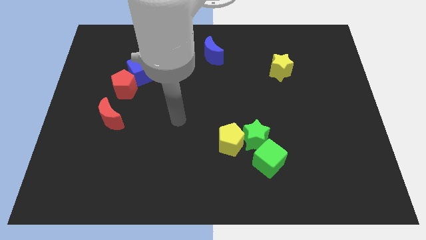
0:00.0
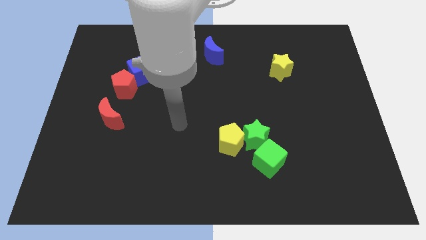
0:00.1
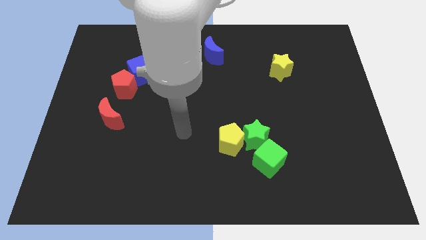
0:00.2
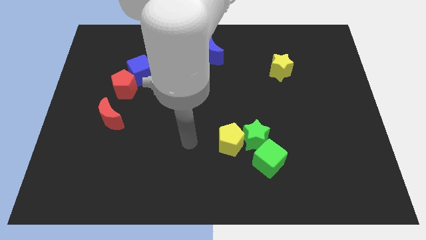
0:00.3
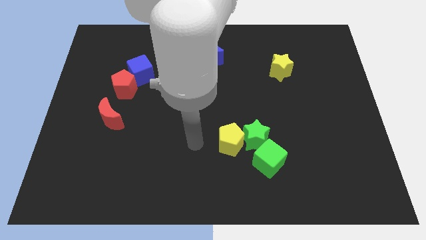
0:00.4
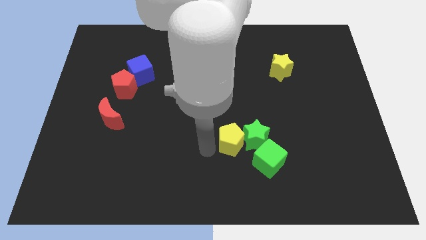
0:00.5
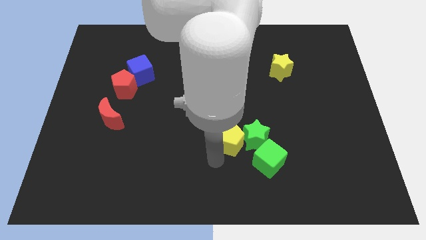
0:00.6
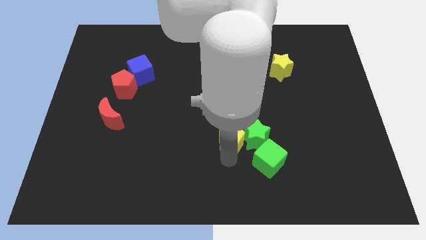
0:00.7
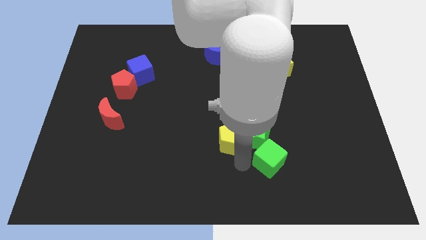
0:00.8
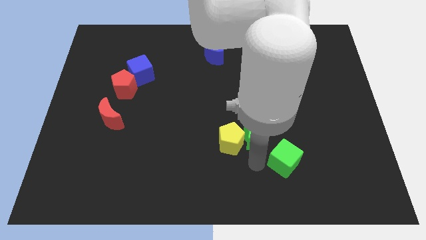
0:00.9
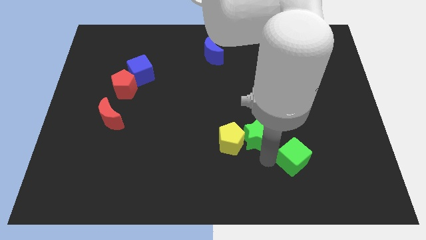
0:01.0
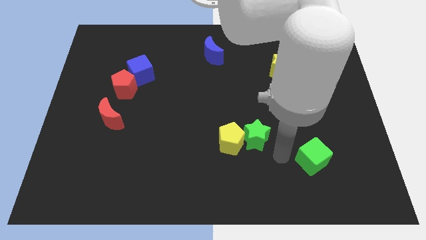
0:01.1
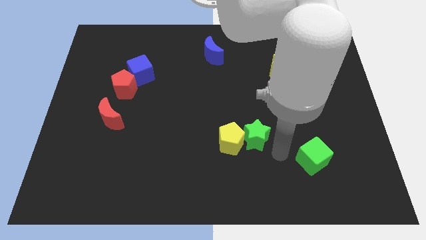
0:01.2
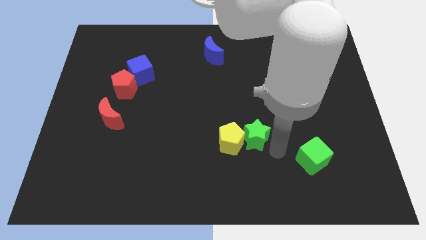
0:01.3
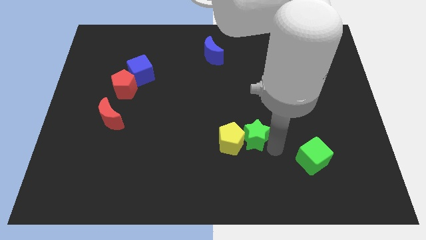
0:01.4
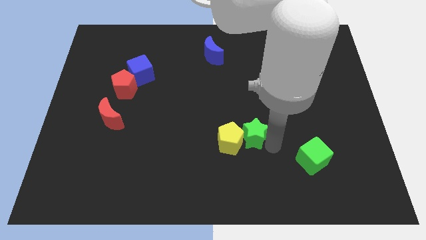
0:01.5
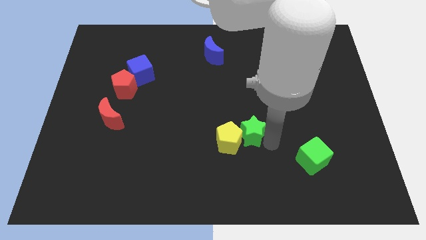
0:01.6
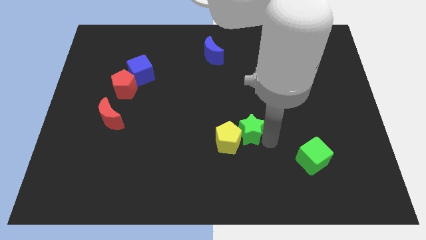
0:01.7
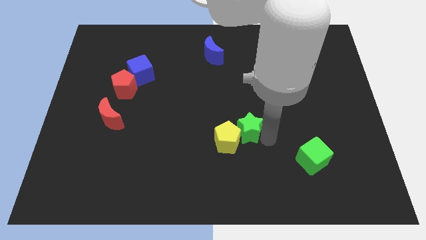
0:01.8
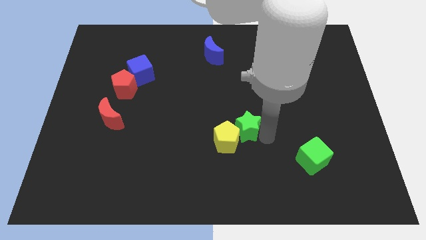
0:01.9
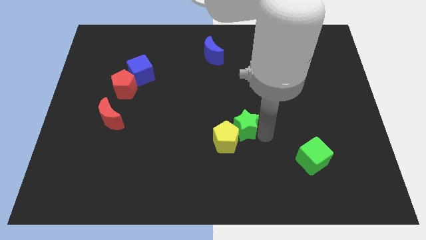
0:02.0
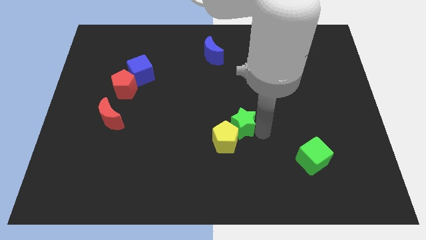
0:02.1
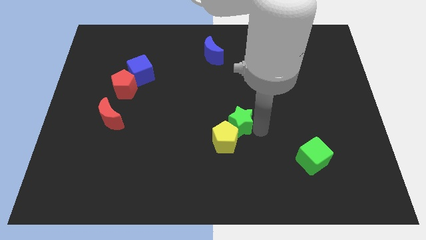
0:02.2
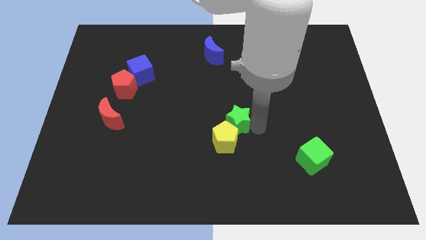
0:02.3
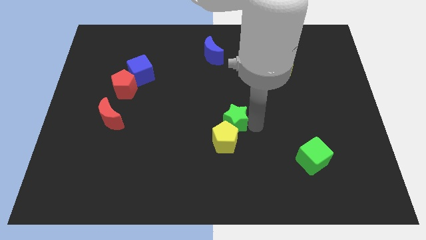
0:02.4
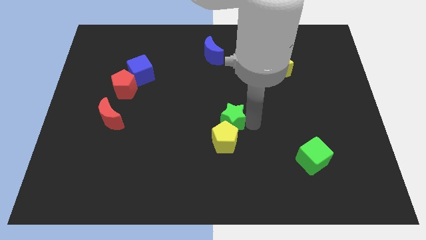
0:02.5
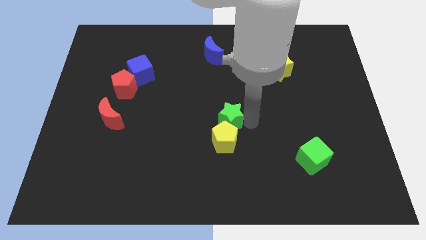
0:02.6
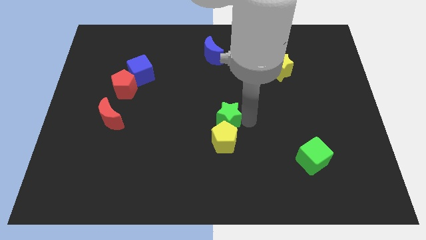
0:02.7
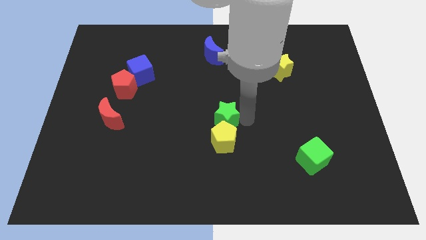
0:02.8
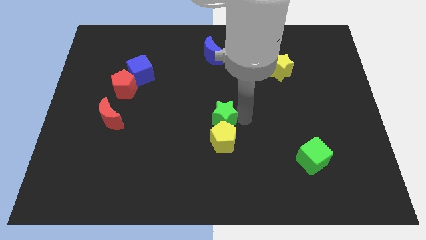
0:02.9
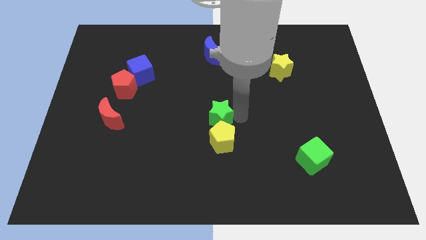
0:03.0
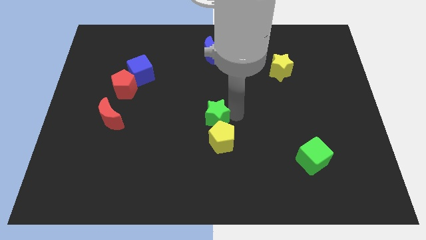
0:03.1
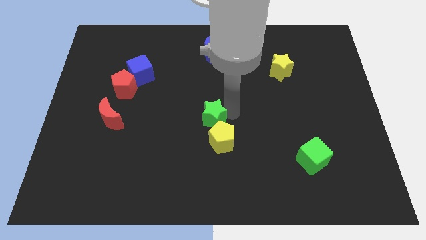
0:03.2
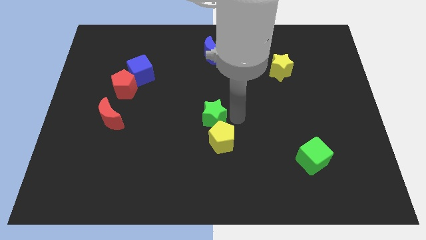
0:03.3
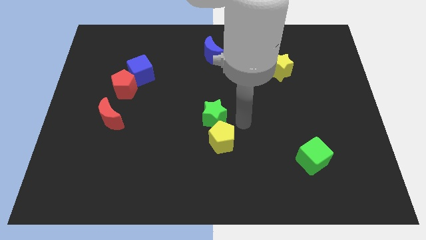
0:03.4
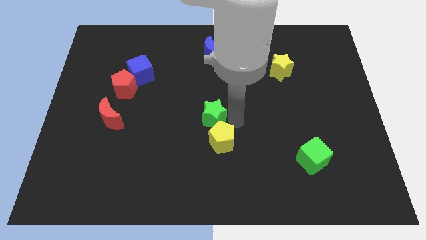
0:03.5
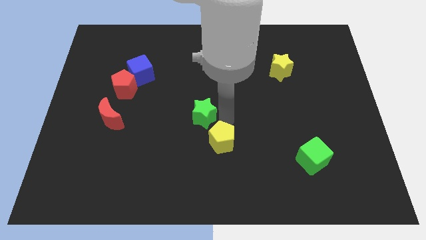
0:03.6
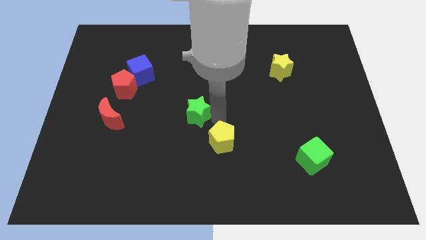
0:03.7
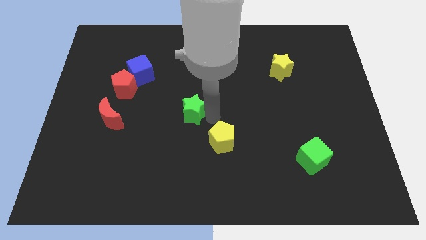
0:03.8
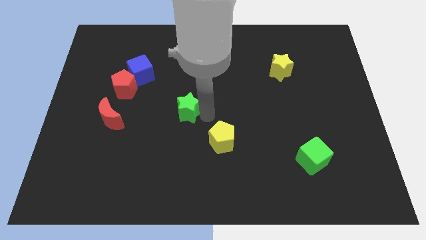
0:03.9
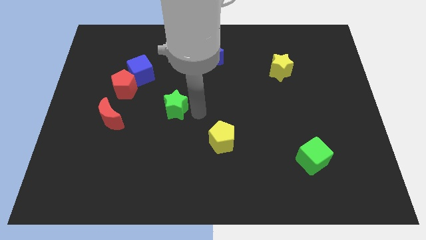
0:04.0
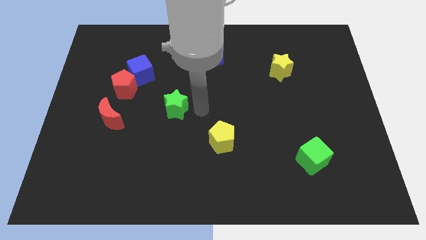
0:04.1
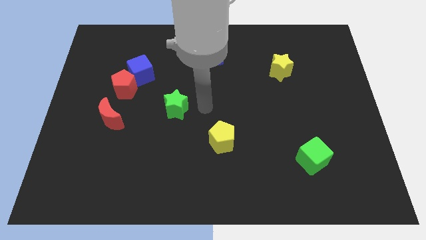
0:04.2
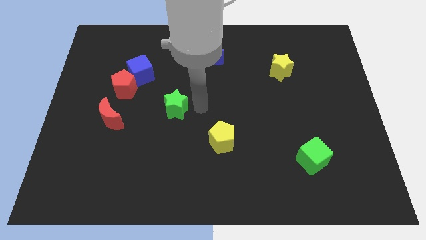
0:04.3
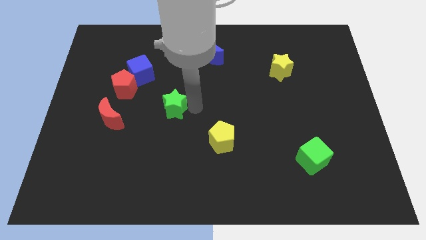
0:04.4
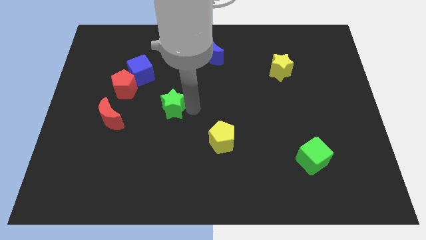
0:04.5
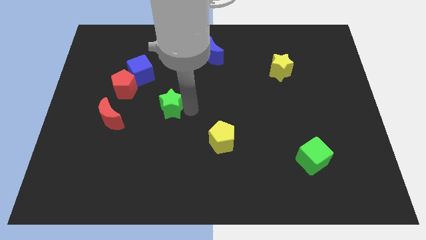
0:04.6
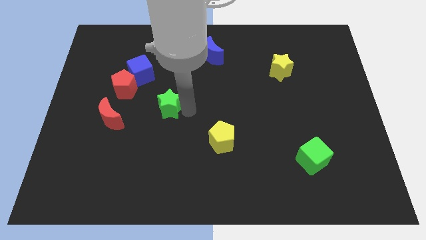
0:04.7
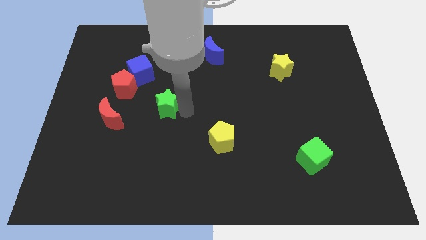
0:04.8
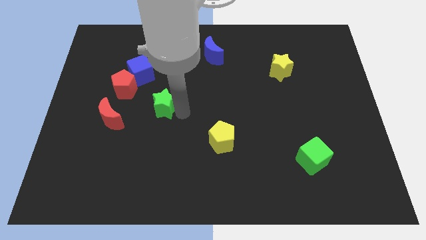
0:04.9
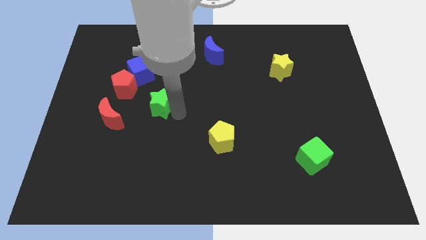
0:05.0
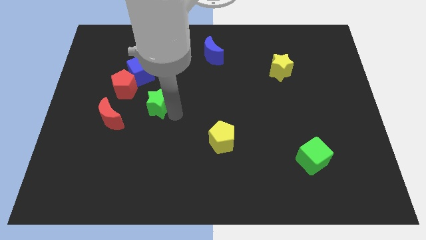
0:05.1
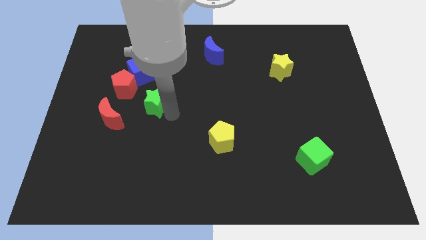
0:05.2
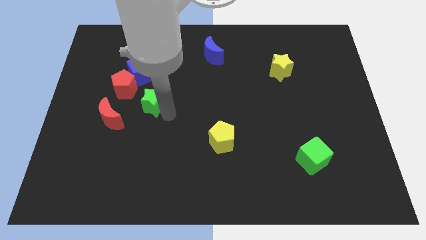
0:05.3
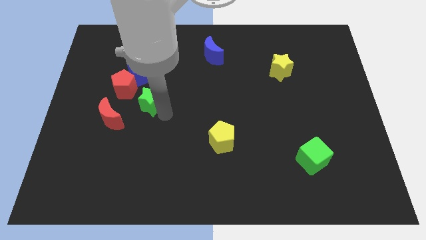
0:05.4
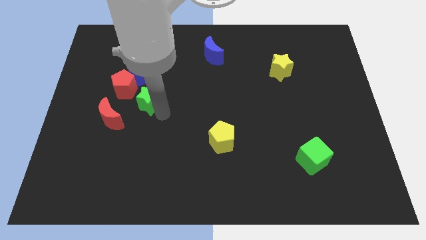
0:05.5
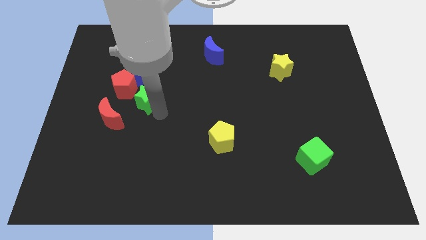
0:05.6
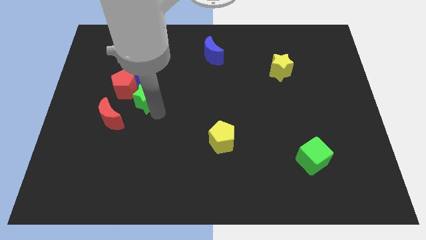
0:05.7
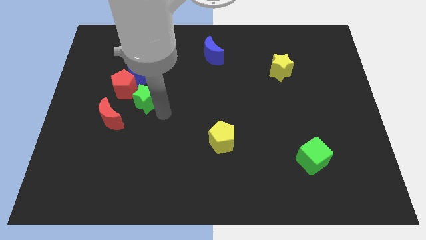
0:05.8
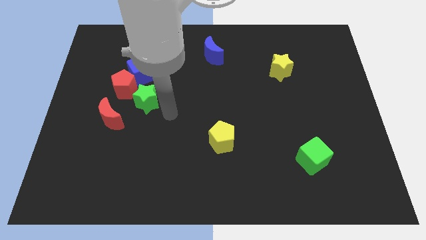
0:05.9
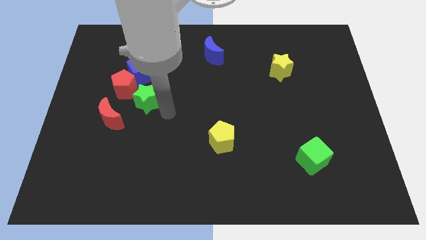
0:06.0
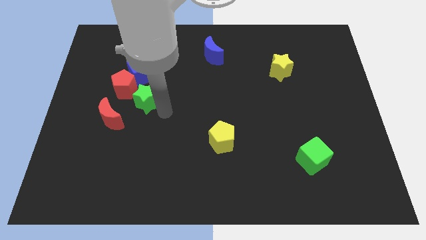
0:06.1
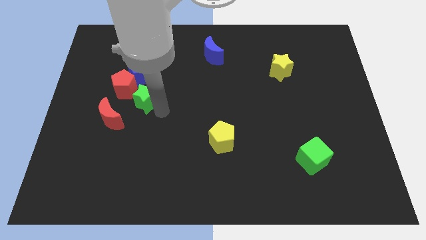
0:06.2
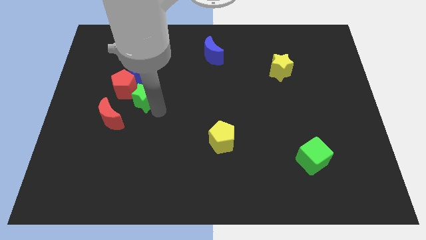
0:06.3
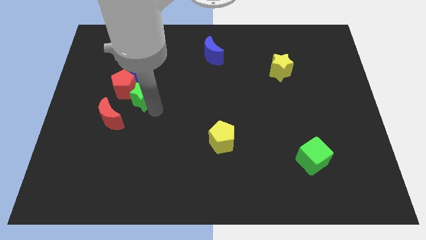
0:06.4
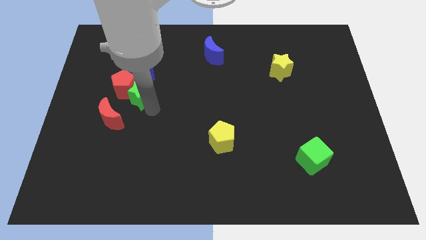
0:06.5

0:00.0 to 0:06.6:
put the green star towards the red pentagon

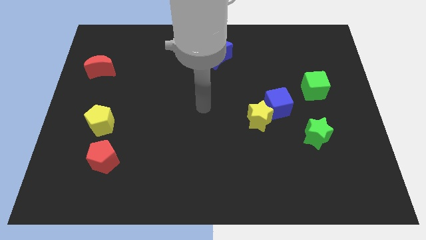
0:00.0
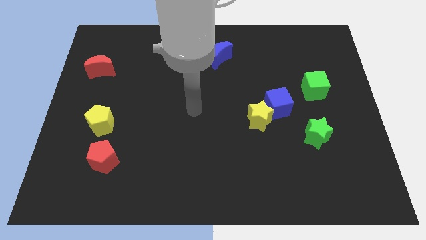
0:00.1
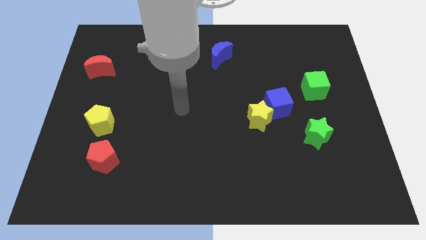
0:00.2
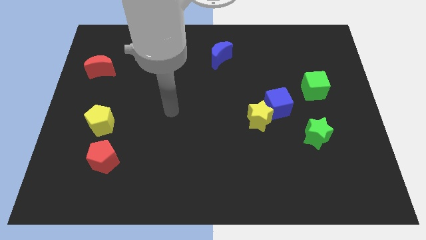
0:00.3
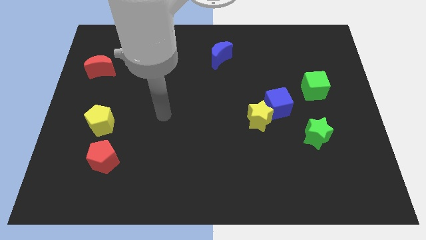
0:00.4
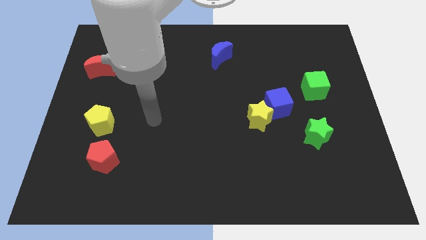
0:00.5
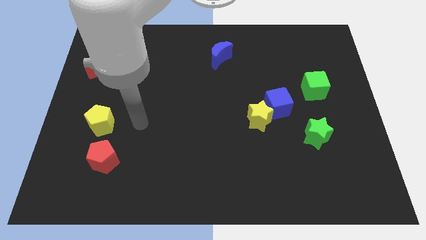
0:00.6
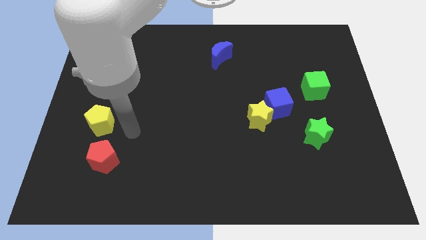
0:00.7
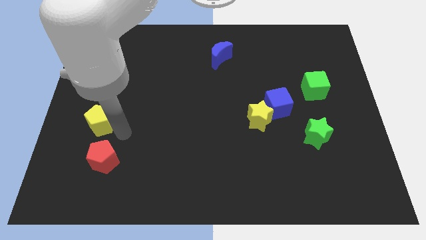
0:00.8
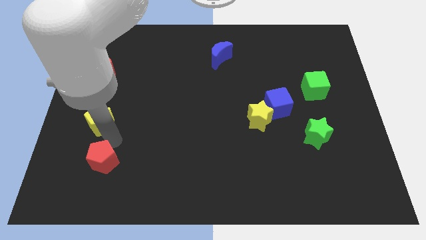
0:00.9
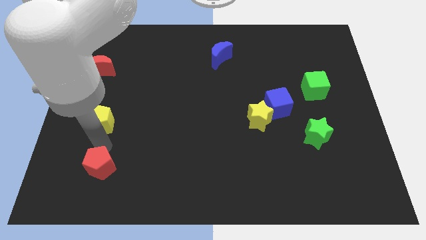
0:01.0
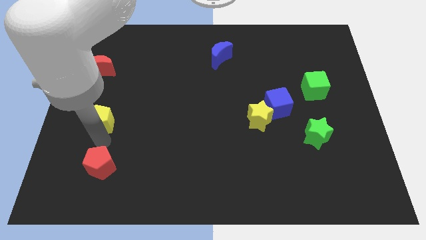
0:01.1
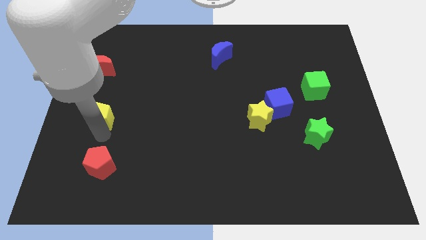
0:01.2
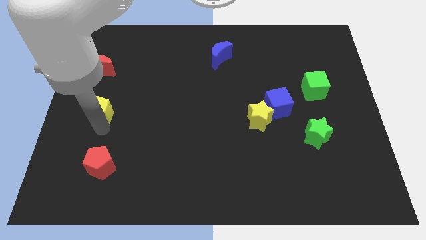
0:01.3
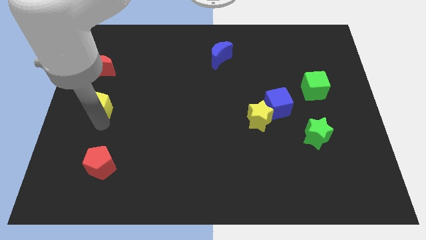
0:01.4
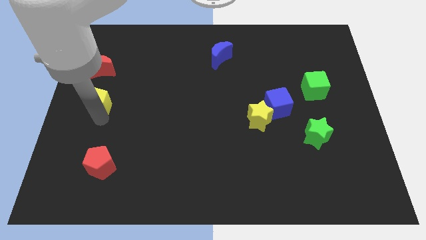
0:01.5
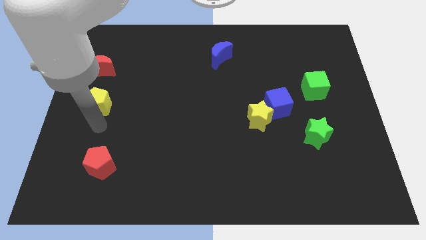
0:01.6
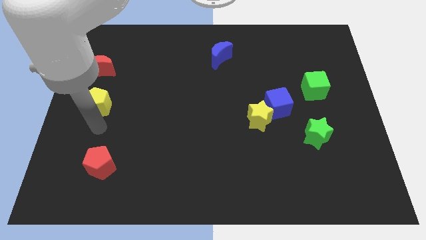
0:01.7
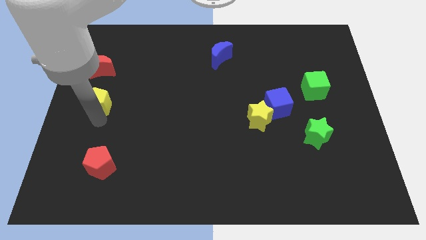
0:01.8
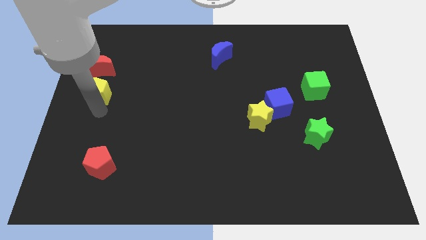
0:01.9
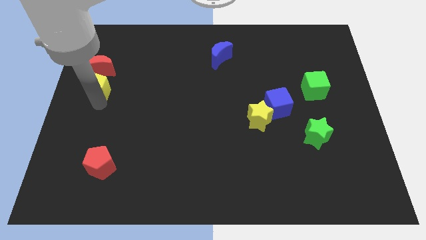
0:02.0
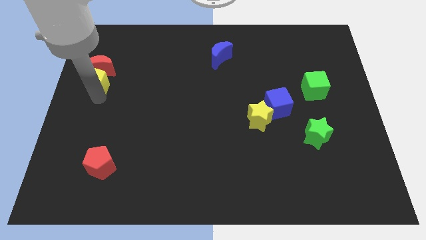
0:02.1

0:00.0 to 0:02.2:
put the yellow pentagon close to the red moon
